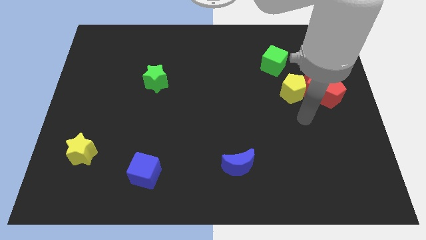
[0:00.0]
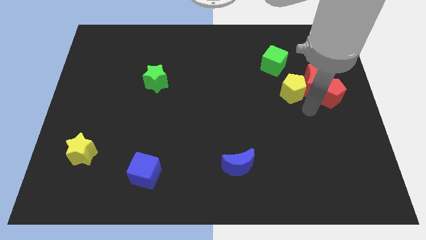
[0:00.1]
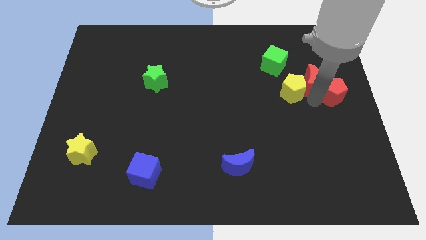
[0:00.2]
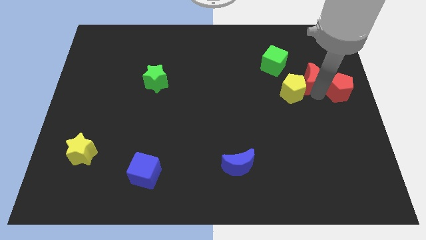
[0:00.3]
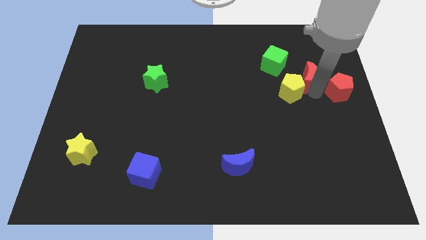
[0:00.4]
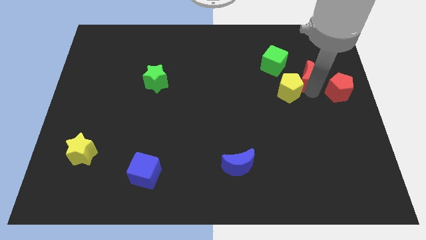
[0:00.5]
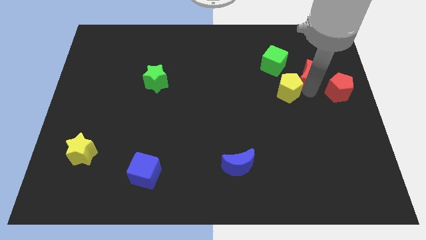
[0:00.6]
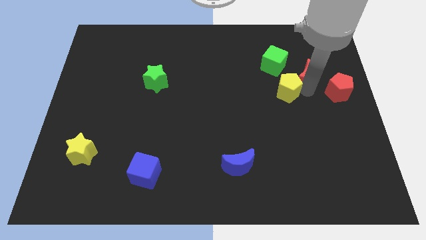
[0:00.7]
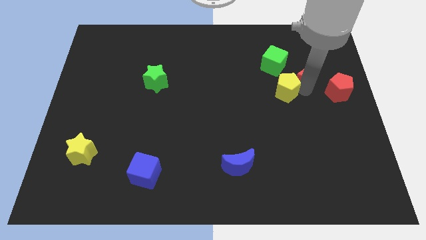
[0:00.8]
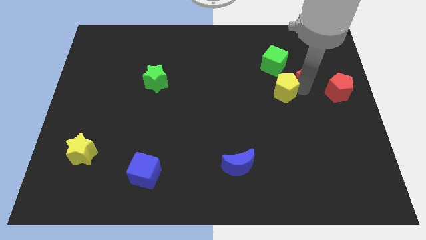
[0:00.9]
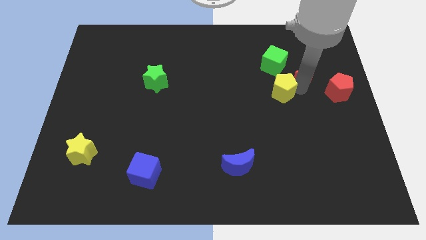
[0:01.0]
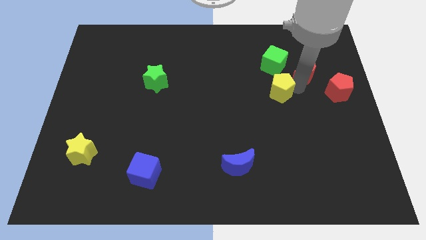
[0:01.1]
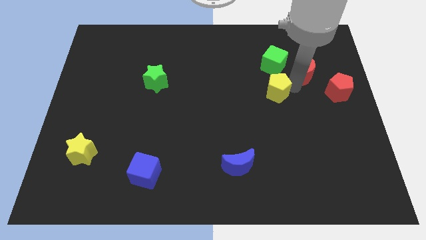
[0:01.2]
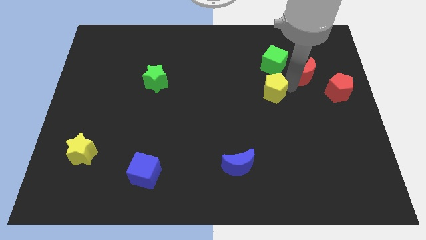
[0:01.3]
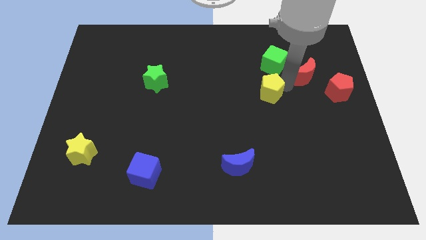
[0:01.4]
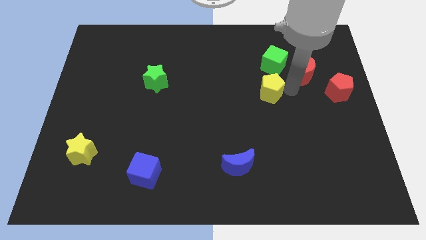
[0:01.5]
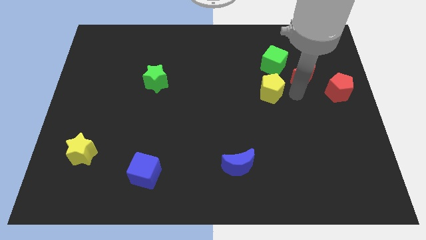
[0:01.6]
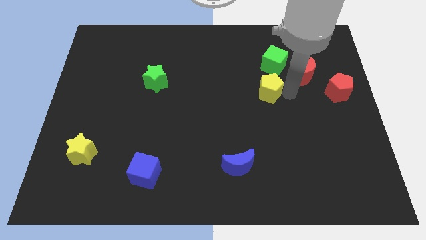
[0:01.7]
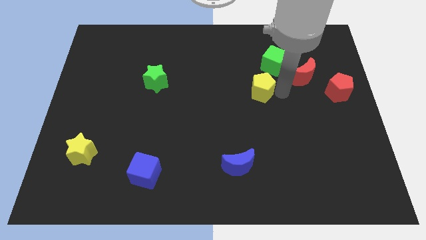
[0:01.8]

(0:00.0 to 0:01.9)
push the yellow pentagon slightly to the left

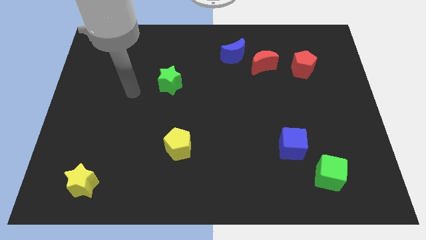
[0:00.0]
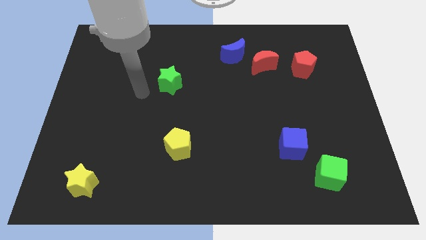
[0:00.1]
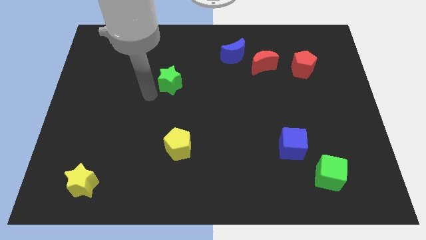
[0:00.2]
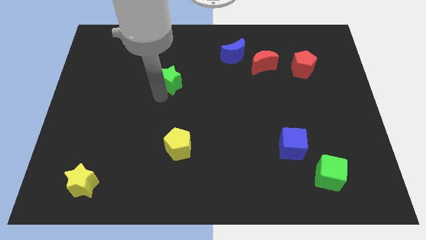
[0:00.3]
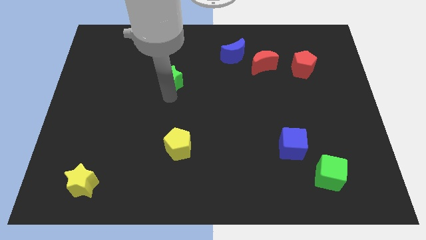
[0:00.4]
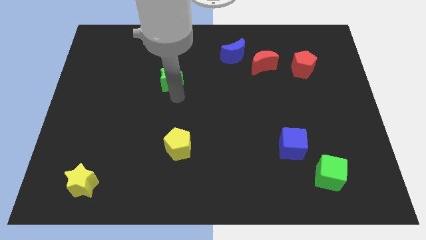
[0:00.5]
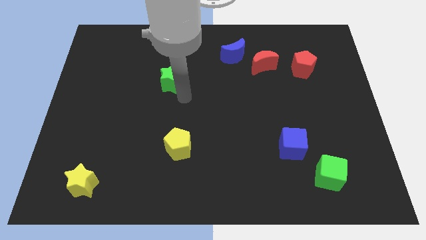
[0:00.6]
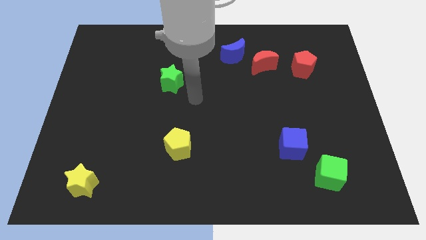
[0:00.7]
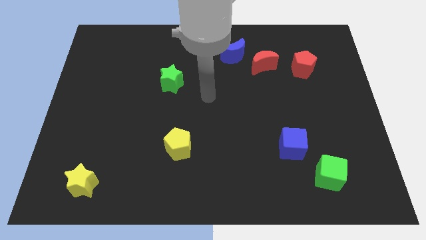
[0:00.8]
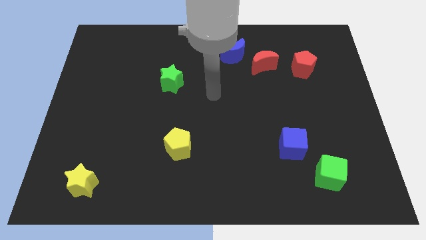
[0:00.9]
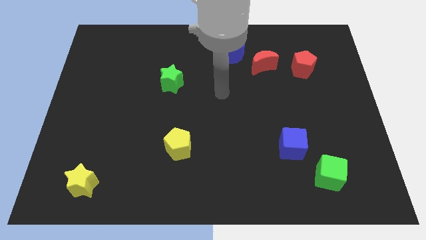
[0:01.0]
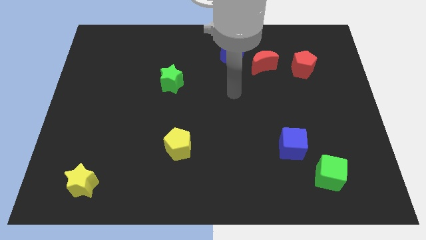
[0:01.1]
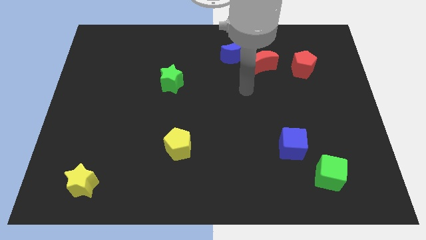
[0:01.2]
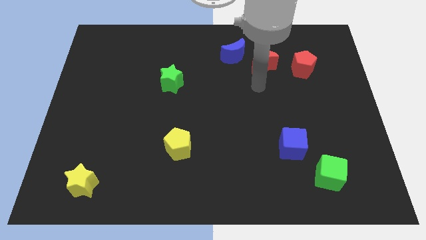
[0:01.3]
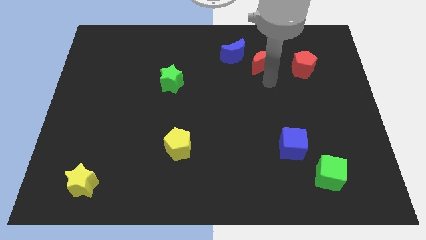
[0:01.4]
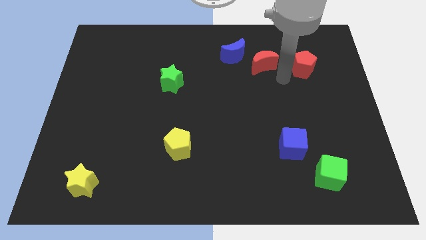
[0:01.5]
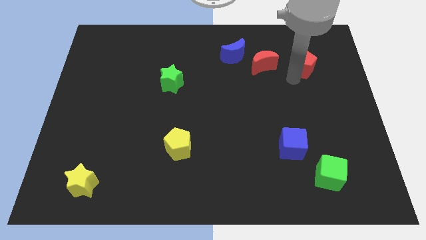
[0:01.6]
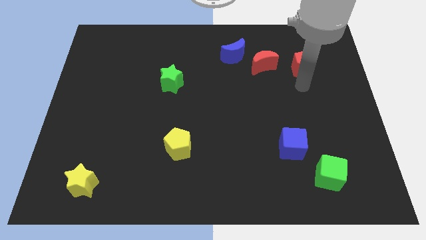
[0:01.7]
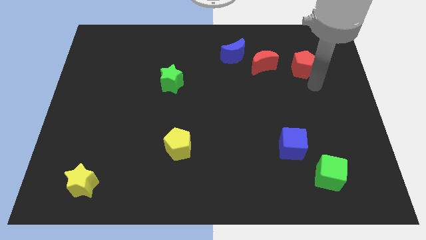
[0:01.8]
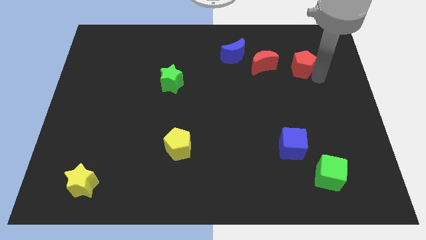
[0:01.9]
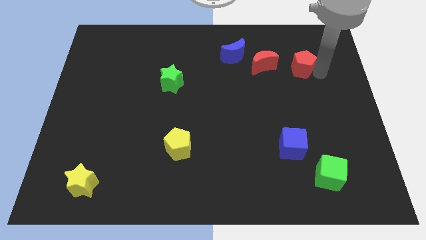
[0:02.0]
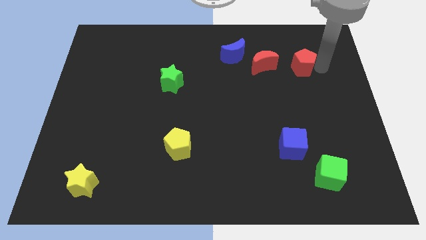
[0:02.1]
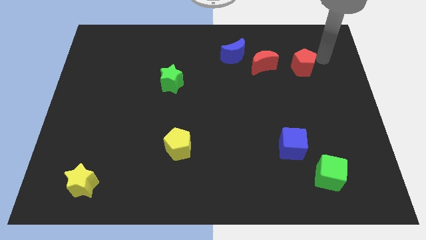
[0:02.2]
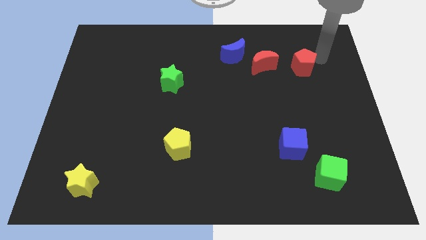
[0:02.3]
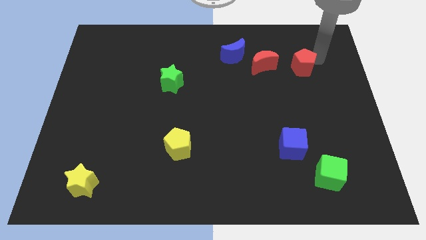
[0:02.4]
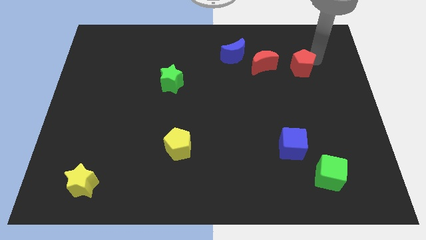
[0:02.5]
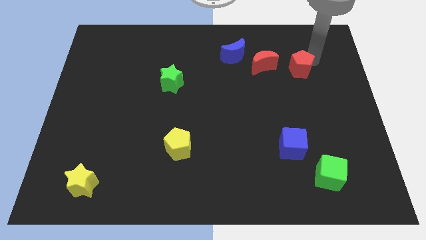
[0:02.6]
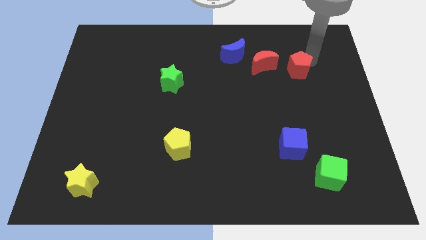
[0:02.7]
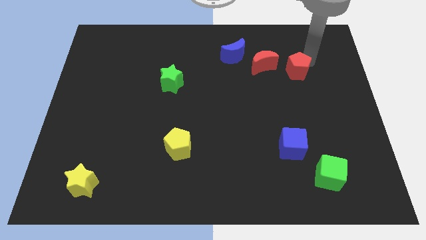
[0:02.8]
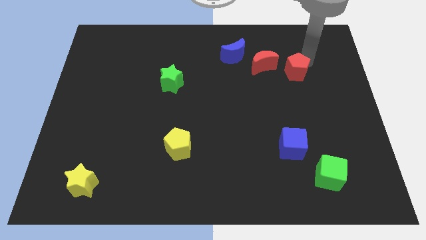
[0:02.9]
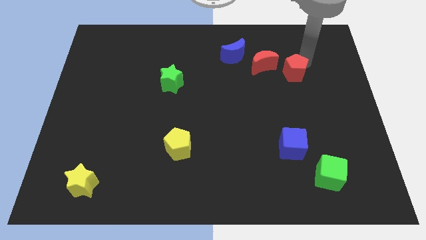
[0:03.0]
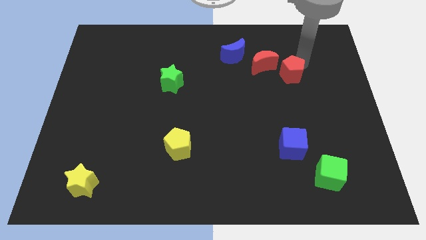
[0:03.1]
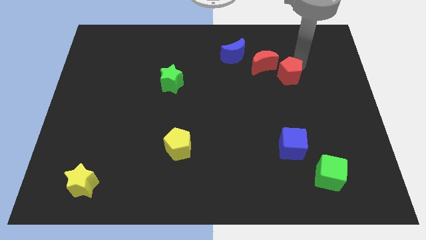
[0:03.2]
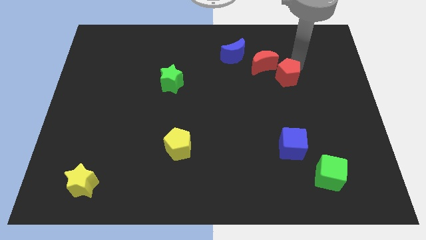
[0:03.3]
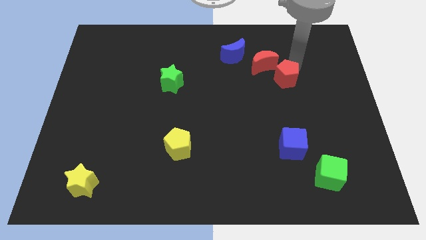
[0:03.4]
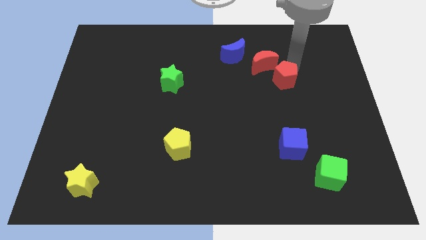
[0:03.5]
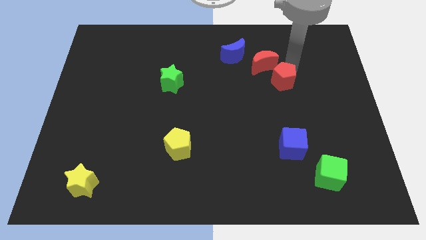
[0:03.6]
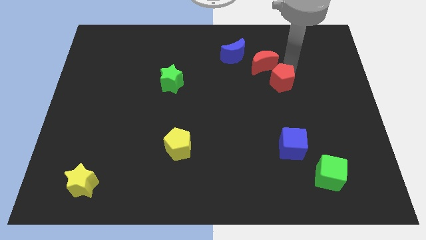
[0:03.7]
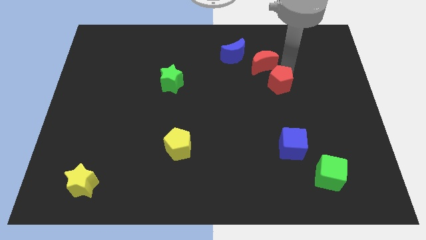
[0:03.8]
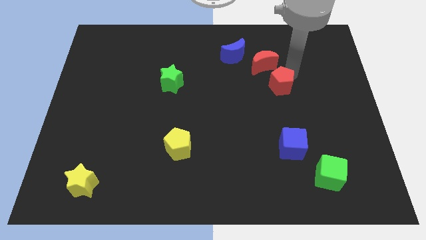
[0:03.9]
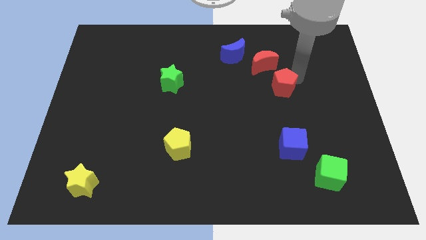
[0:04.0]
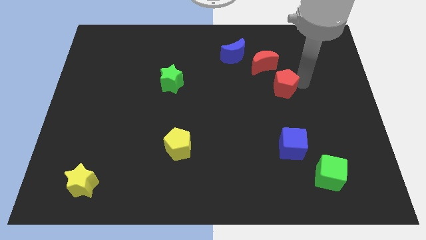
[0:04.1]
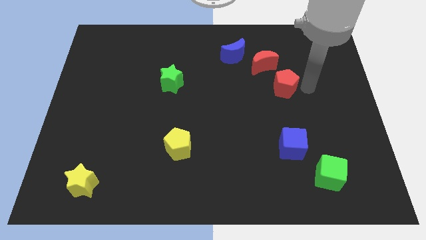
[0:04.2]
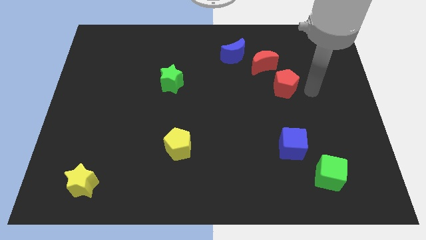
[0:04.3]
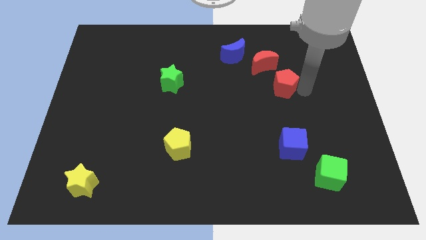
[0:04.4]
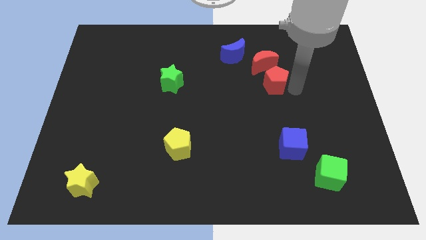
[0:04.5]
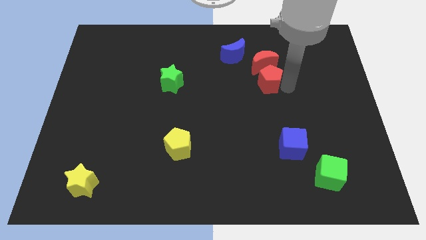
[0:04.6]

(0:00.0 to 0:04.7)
slide the red pentagon a bit left

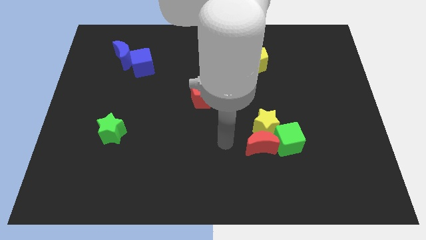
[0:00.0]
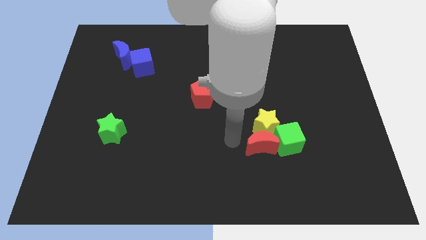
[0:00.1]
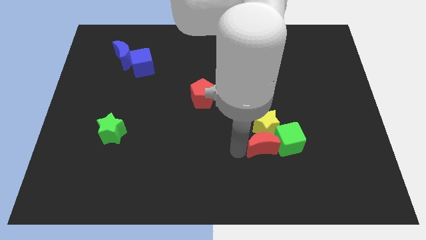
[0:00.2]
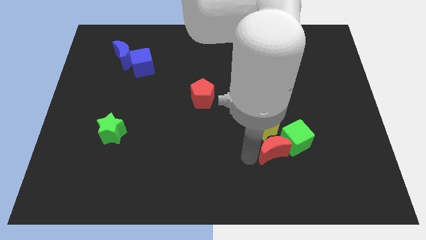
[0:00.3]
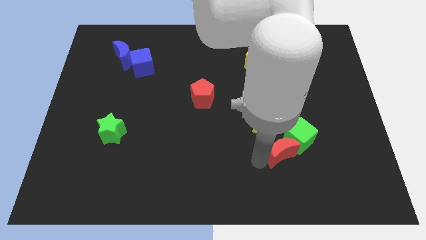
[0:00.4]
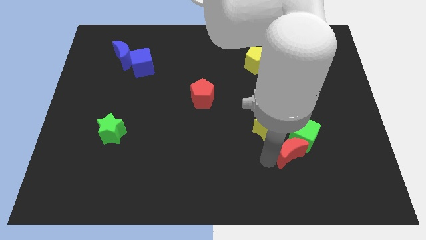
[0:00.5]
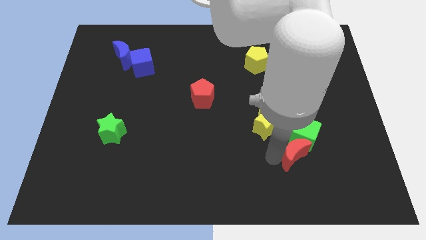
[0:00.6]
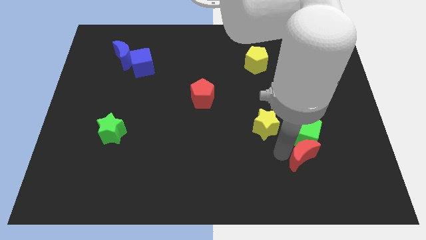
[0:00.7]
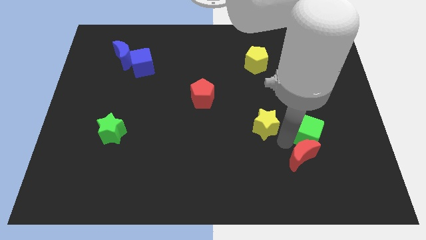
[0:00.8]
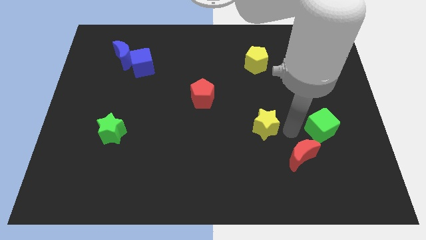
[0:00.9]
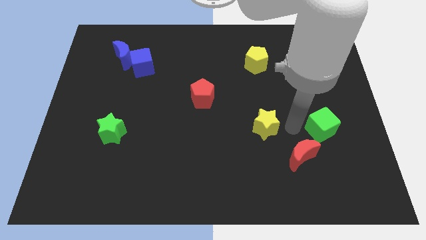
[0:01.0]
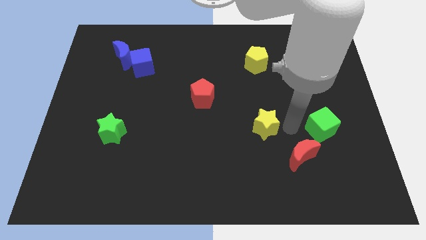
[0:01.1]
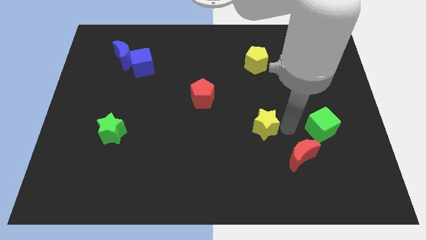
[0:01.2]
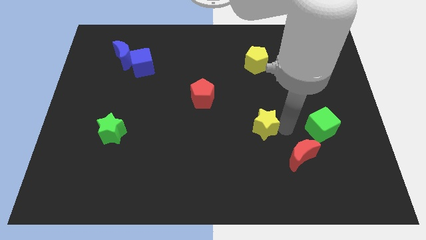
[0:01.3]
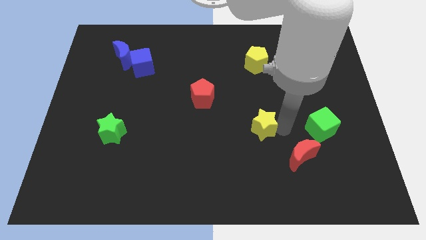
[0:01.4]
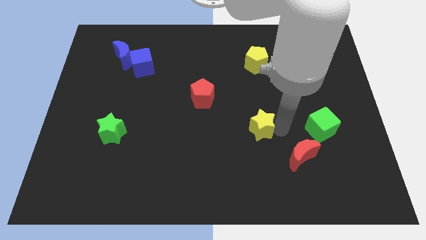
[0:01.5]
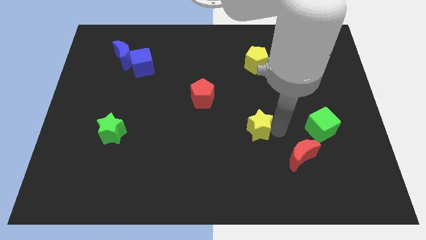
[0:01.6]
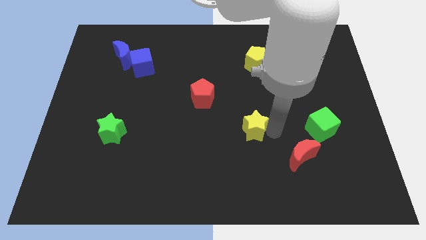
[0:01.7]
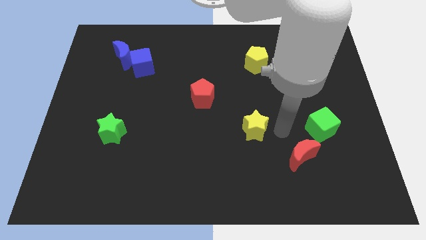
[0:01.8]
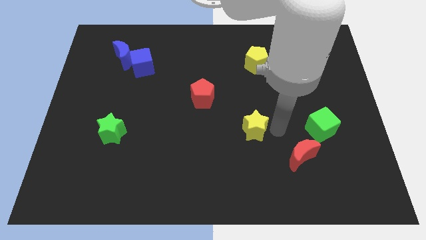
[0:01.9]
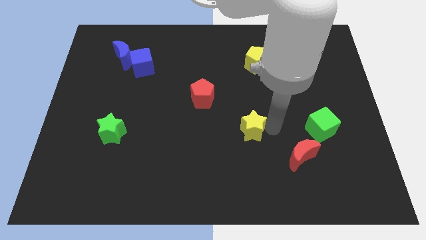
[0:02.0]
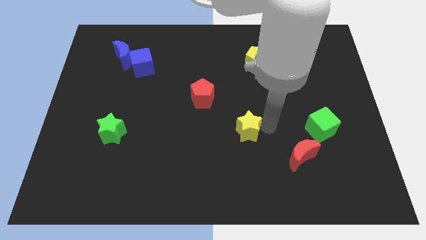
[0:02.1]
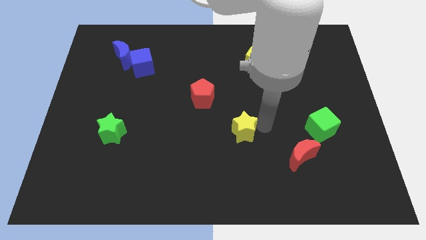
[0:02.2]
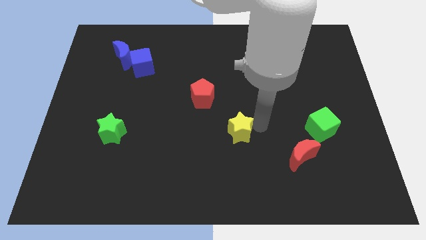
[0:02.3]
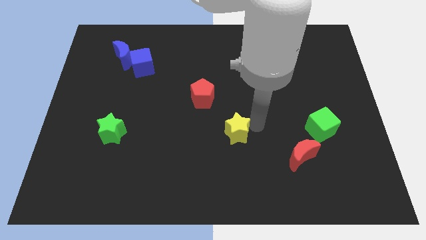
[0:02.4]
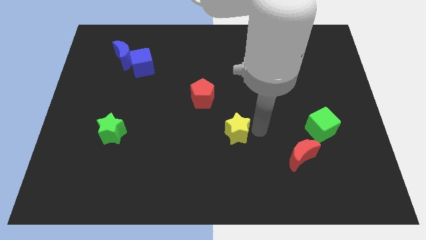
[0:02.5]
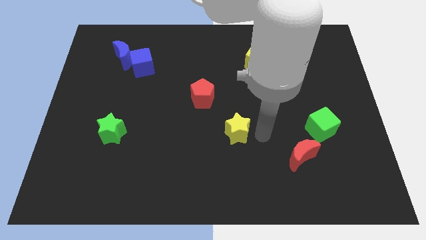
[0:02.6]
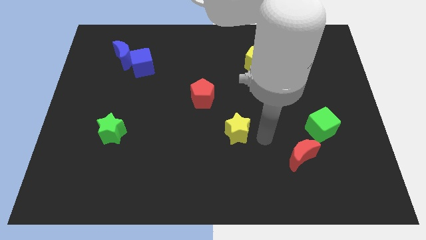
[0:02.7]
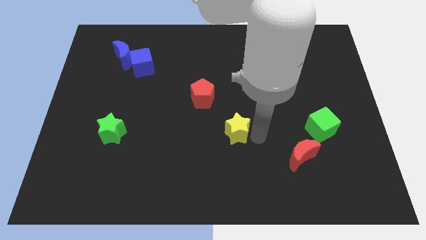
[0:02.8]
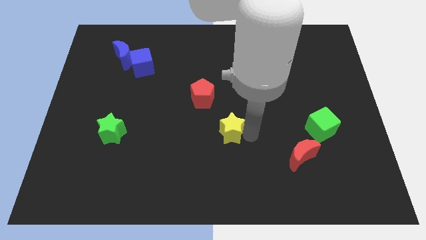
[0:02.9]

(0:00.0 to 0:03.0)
move the yellow star a little bit left
